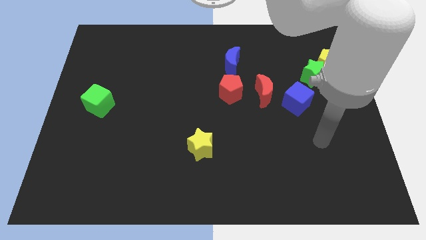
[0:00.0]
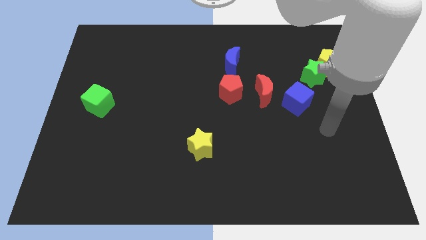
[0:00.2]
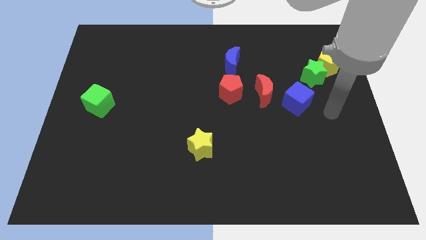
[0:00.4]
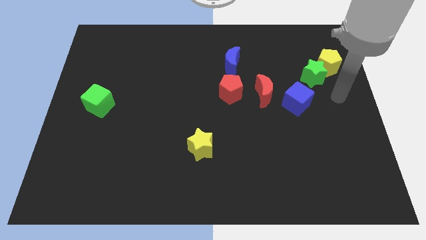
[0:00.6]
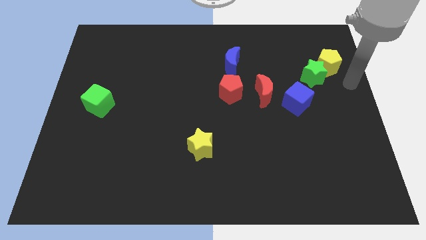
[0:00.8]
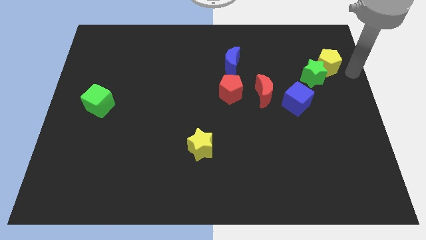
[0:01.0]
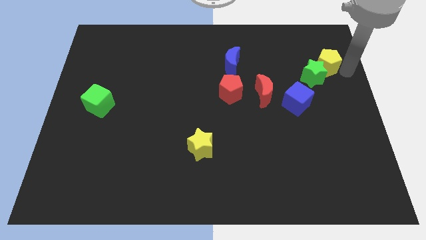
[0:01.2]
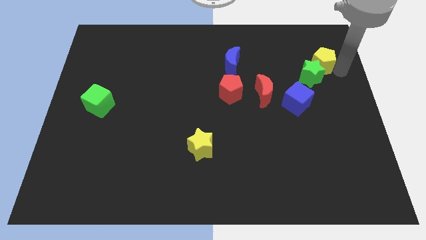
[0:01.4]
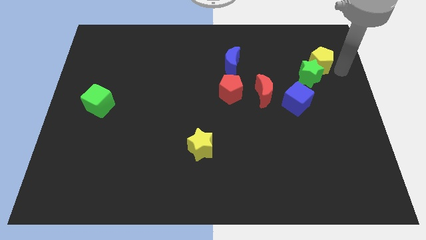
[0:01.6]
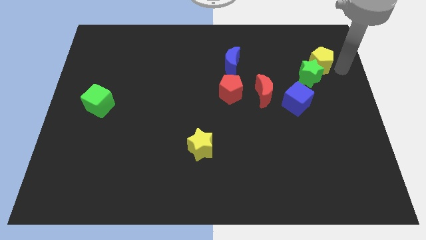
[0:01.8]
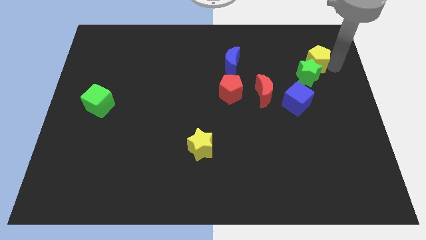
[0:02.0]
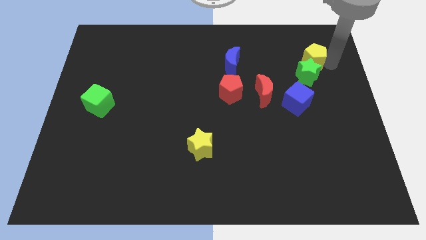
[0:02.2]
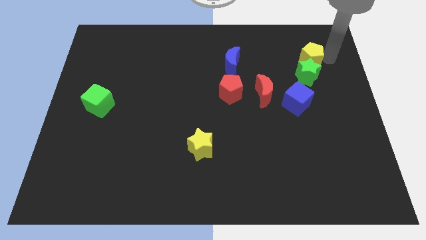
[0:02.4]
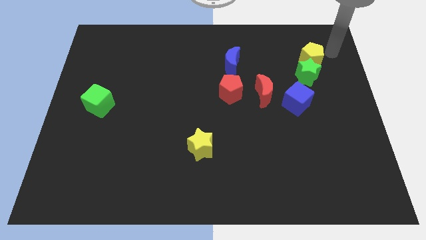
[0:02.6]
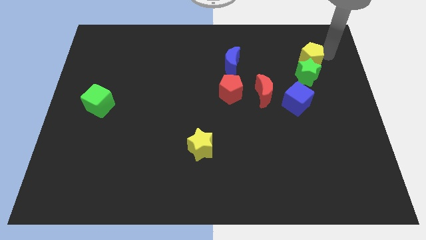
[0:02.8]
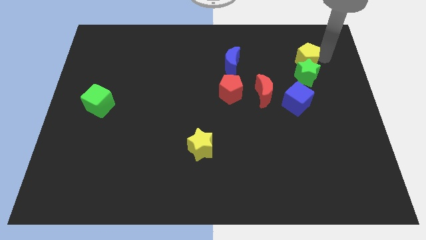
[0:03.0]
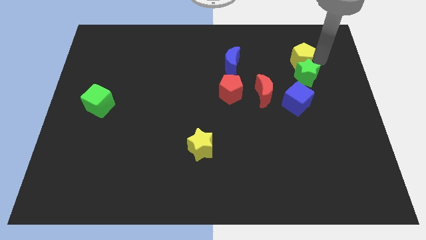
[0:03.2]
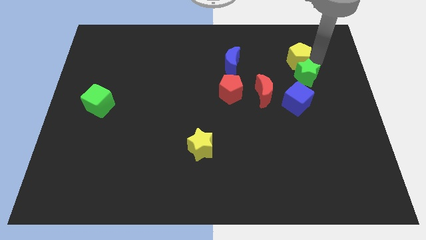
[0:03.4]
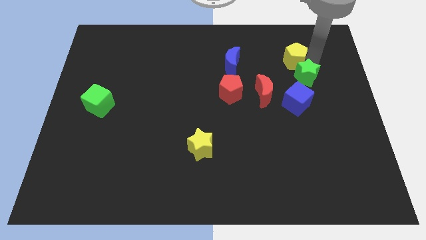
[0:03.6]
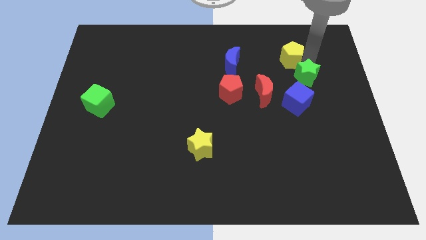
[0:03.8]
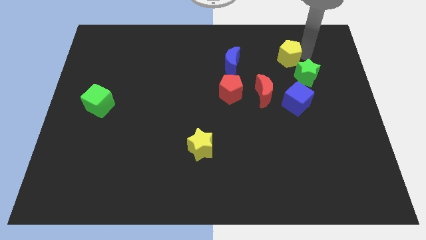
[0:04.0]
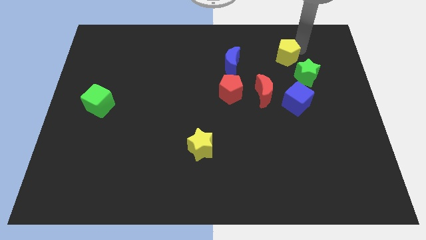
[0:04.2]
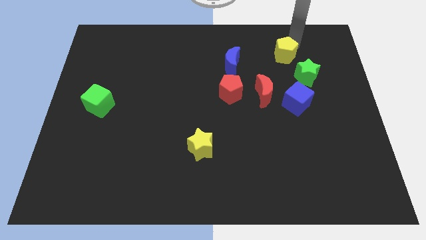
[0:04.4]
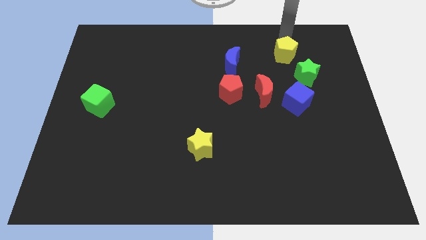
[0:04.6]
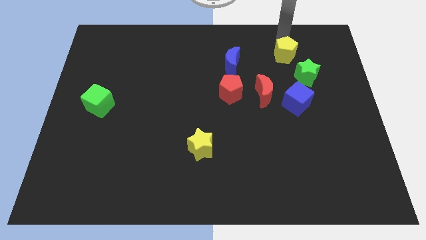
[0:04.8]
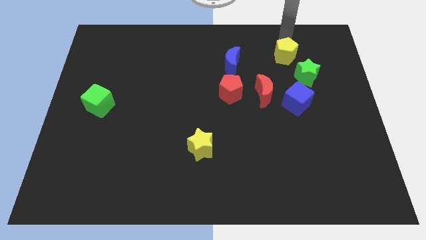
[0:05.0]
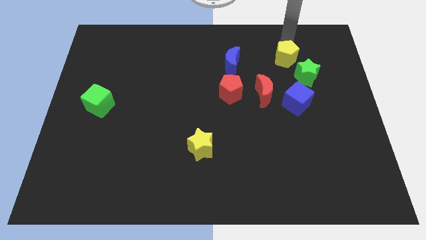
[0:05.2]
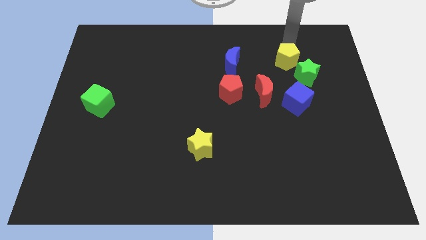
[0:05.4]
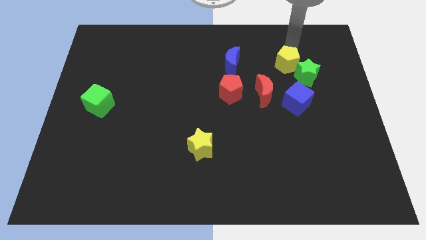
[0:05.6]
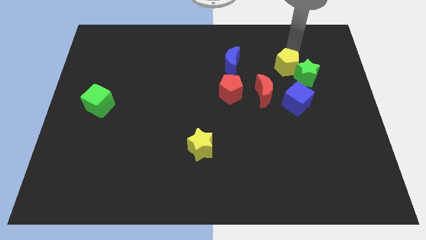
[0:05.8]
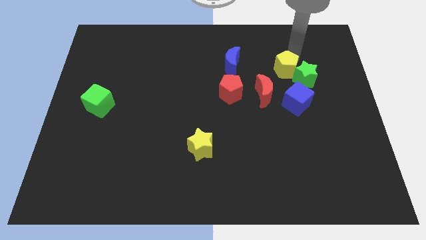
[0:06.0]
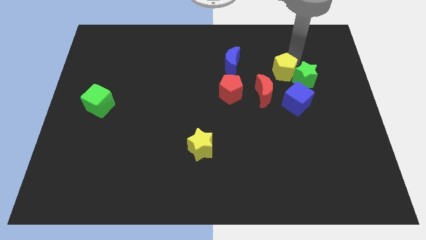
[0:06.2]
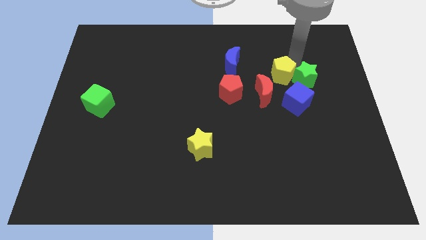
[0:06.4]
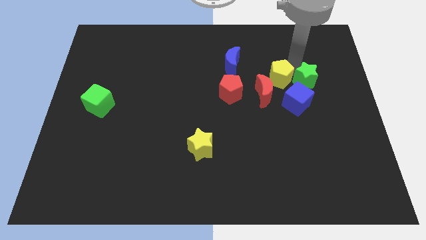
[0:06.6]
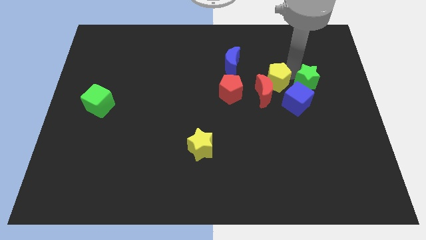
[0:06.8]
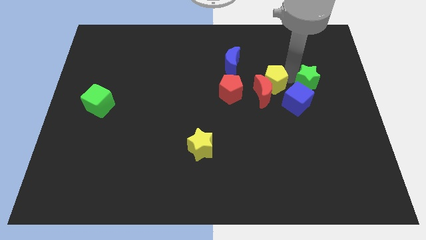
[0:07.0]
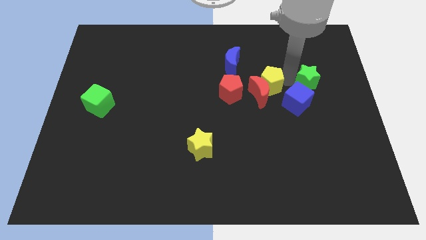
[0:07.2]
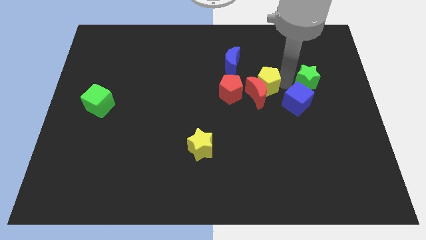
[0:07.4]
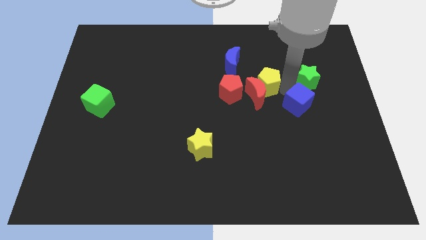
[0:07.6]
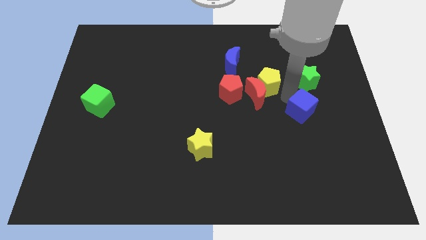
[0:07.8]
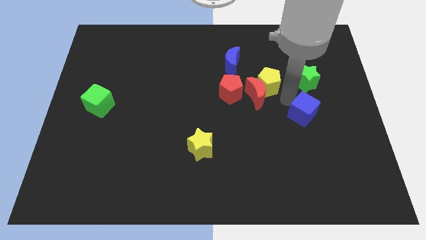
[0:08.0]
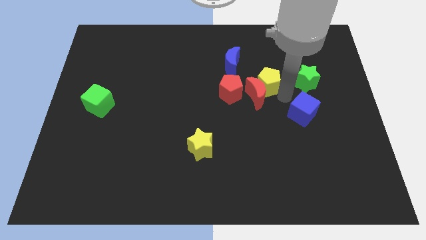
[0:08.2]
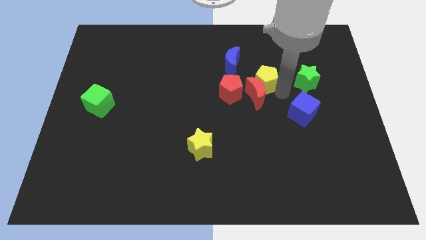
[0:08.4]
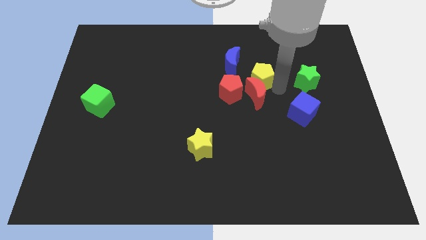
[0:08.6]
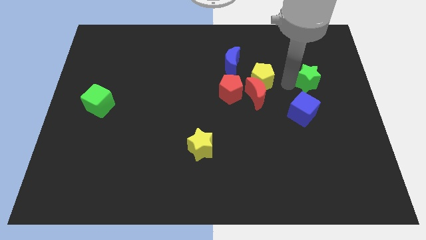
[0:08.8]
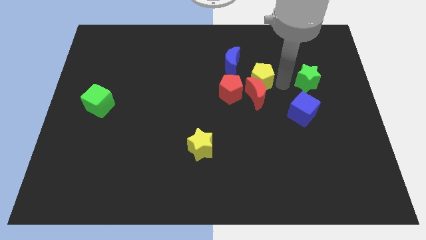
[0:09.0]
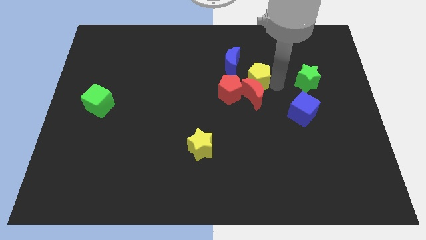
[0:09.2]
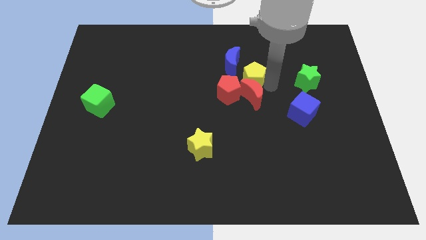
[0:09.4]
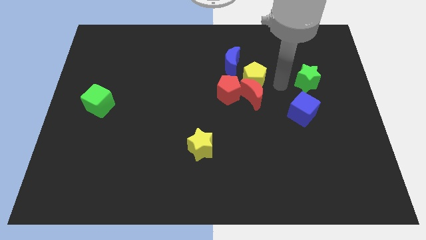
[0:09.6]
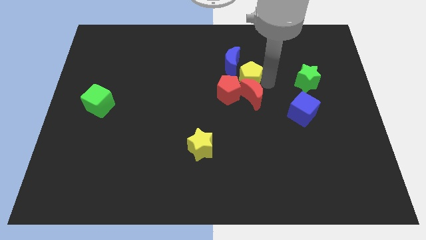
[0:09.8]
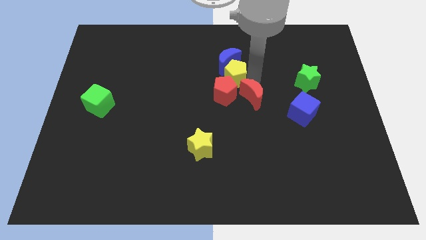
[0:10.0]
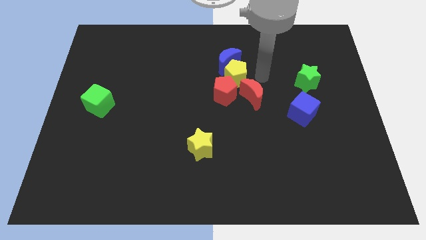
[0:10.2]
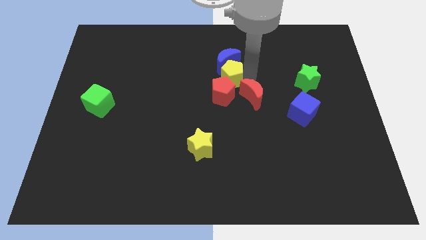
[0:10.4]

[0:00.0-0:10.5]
move the yellow pentagon diagonally down and to the left of the blue moon

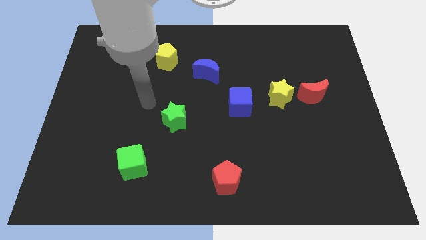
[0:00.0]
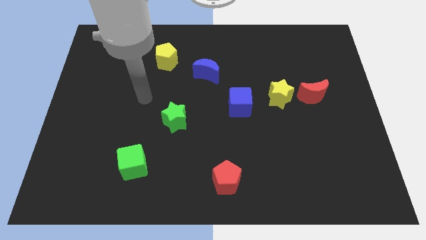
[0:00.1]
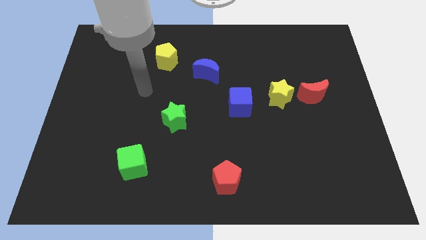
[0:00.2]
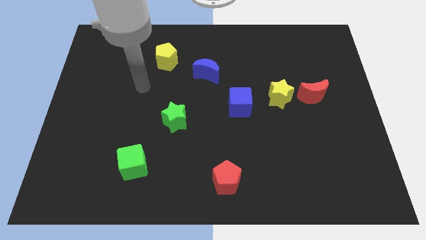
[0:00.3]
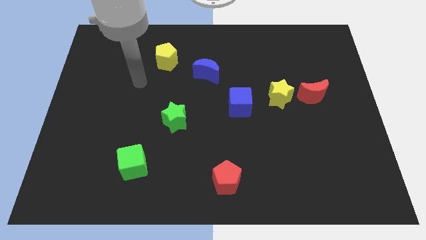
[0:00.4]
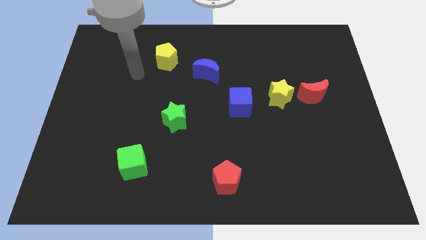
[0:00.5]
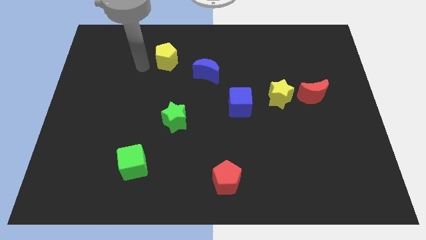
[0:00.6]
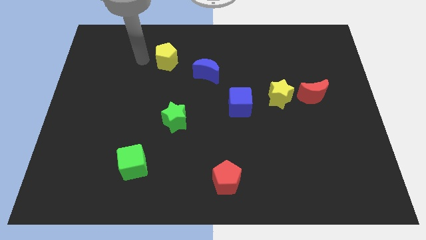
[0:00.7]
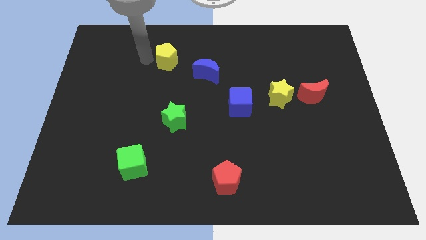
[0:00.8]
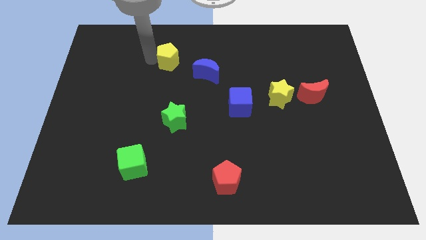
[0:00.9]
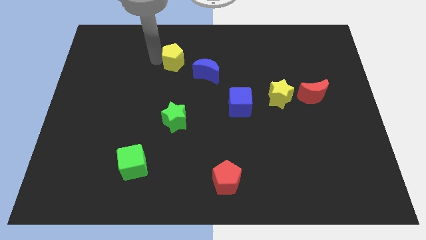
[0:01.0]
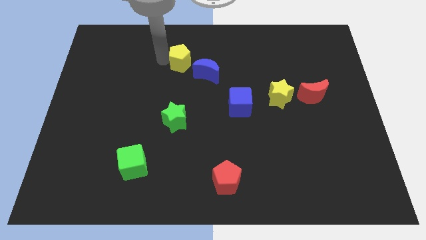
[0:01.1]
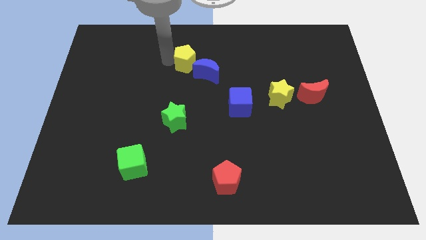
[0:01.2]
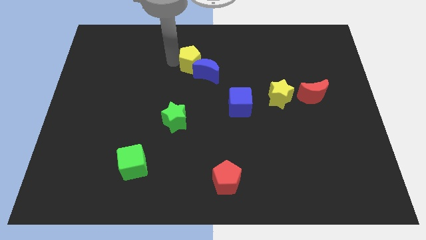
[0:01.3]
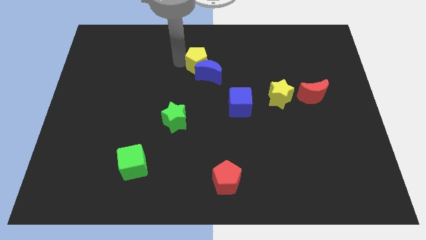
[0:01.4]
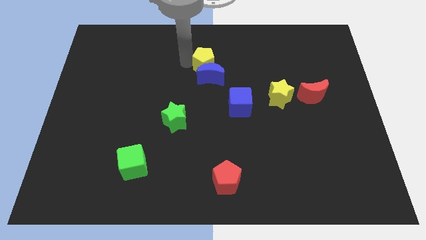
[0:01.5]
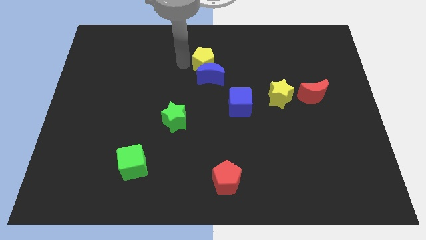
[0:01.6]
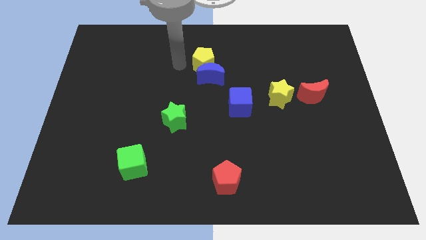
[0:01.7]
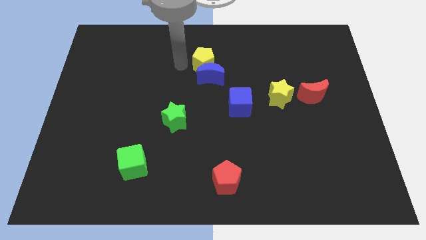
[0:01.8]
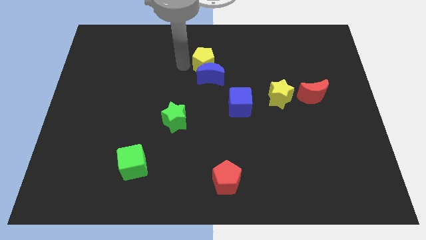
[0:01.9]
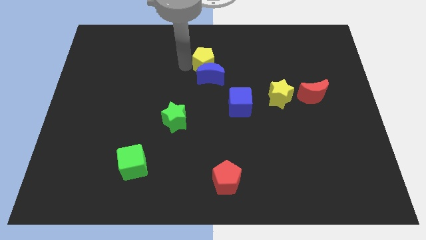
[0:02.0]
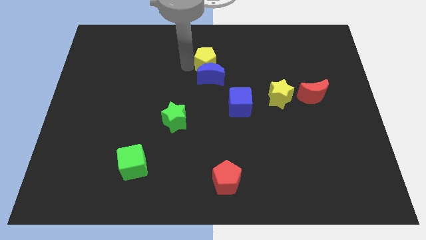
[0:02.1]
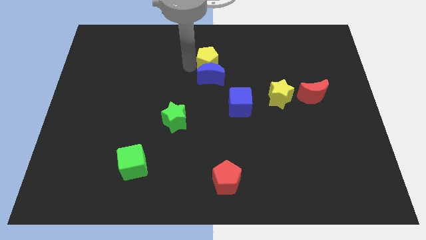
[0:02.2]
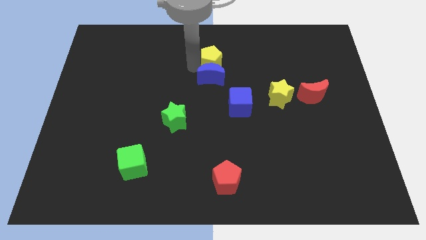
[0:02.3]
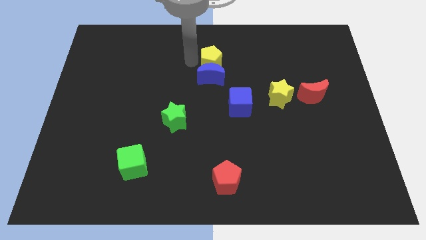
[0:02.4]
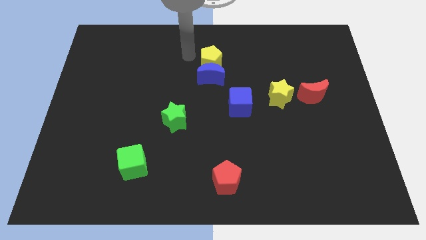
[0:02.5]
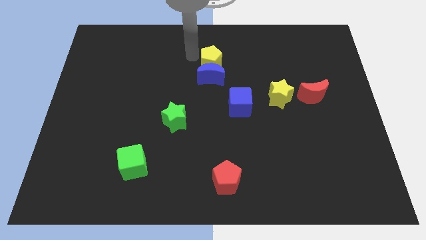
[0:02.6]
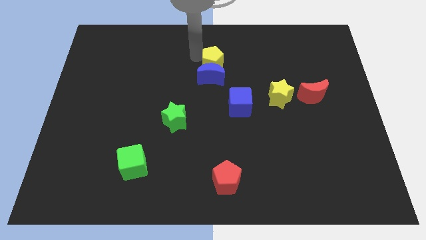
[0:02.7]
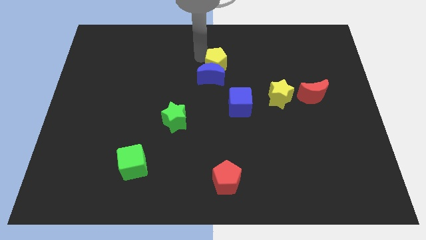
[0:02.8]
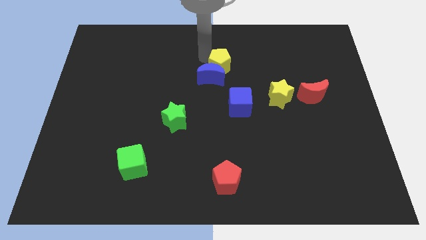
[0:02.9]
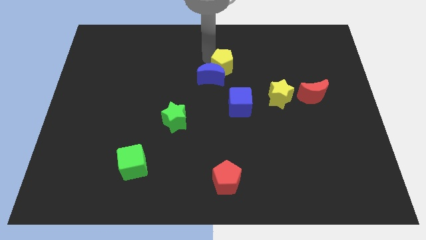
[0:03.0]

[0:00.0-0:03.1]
put the yellow pentagon just right of the blue moon
